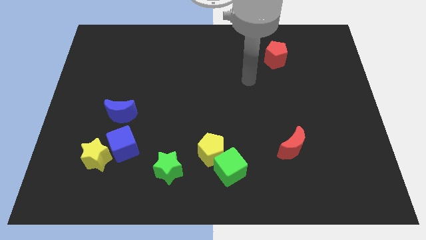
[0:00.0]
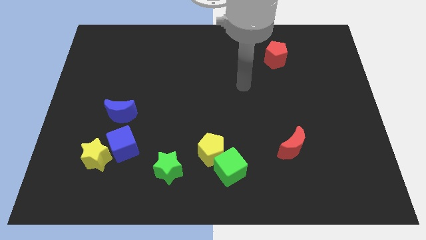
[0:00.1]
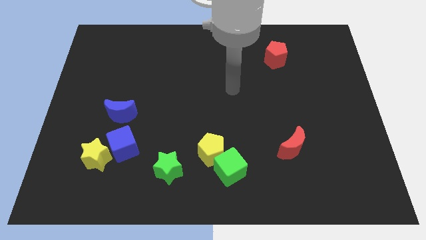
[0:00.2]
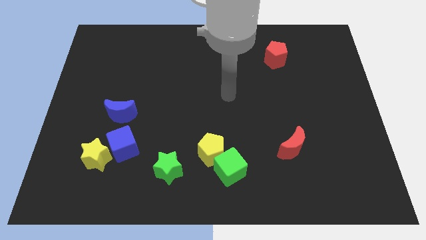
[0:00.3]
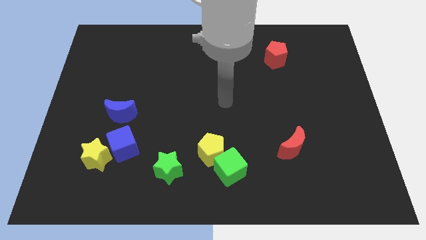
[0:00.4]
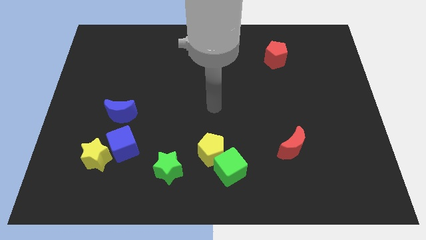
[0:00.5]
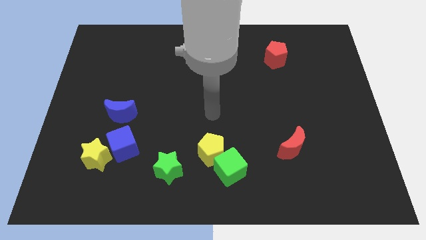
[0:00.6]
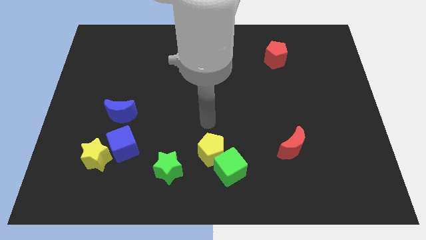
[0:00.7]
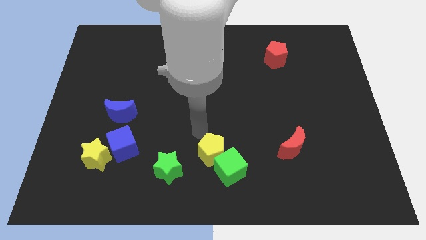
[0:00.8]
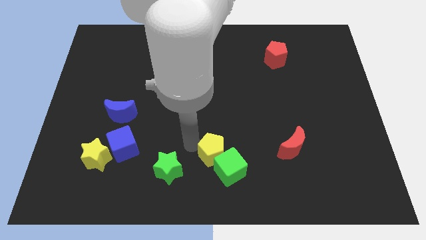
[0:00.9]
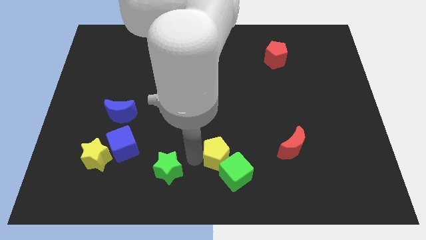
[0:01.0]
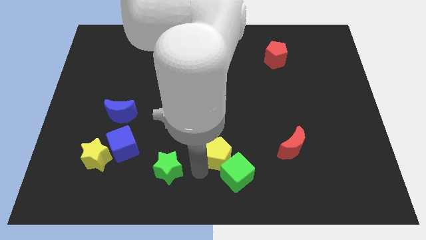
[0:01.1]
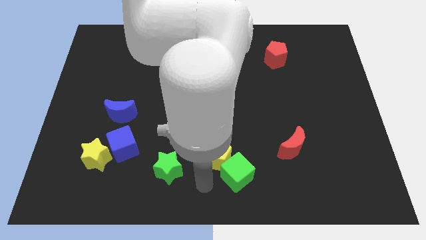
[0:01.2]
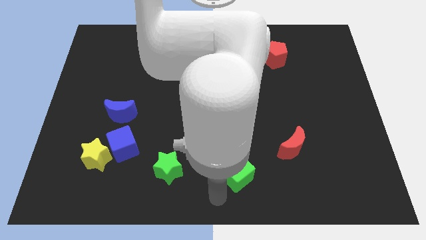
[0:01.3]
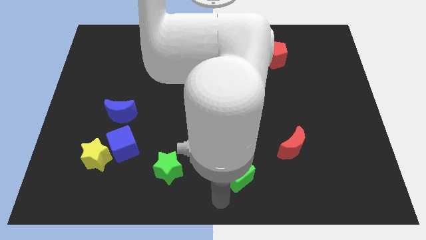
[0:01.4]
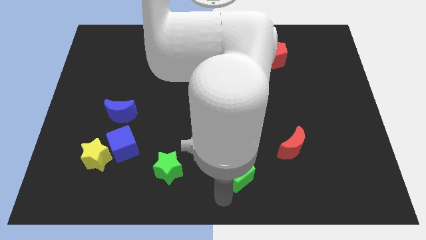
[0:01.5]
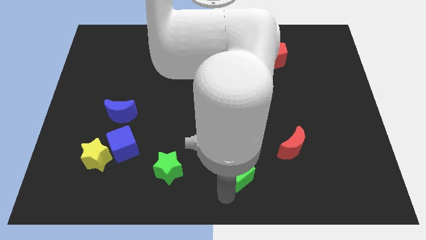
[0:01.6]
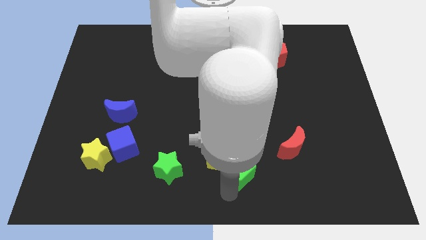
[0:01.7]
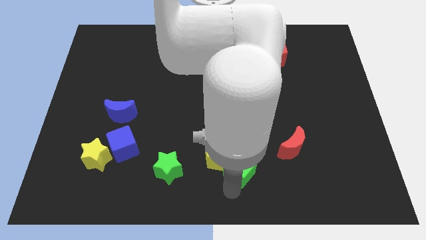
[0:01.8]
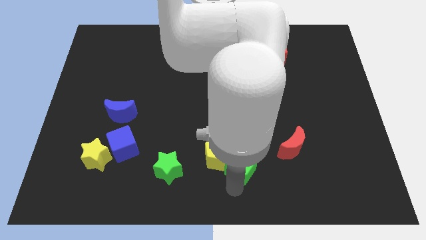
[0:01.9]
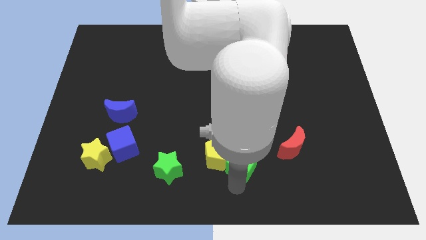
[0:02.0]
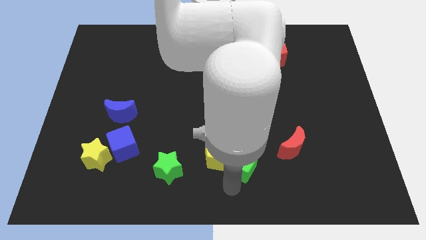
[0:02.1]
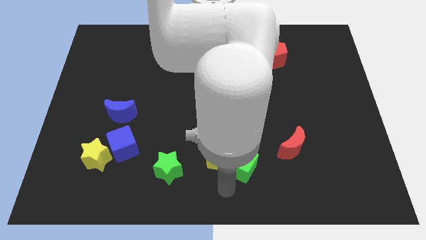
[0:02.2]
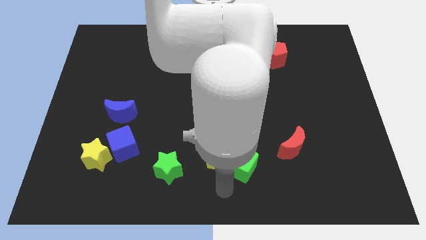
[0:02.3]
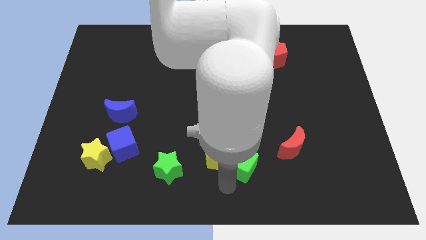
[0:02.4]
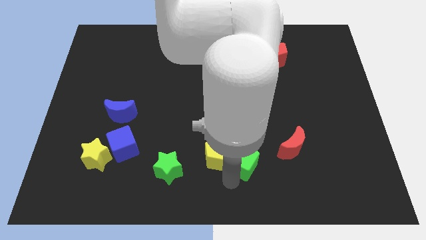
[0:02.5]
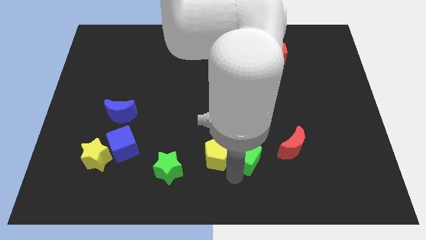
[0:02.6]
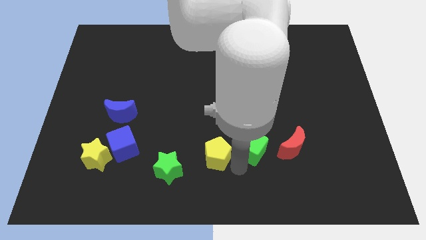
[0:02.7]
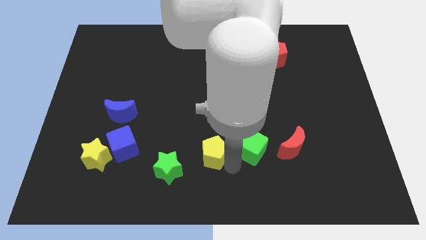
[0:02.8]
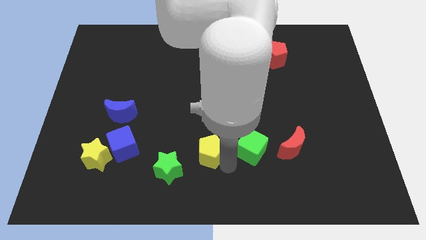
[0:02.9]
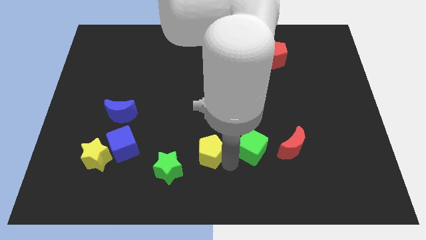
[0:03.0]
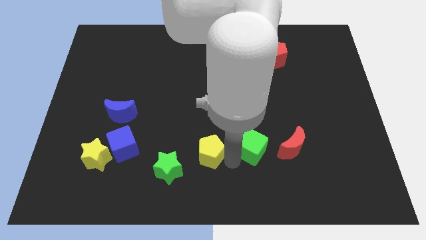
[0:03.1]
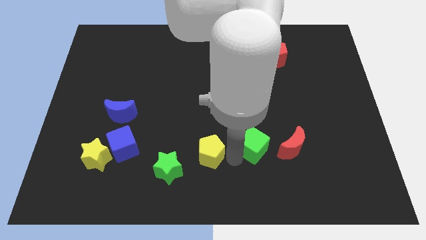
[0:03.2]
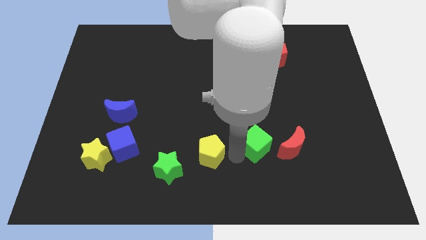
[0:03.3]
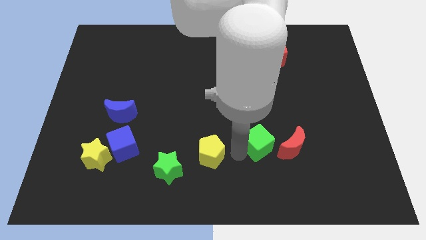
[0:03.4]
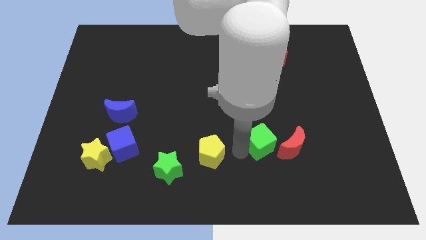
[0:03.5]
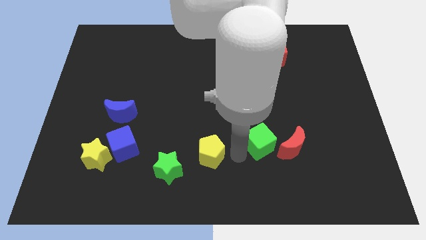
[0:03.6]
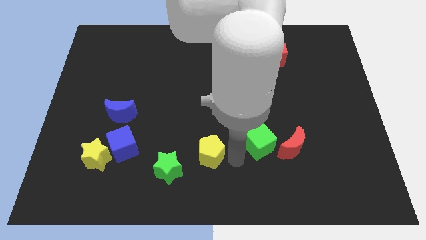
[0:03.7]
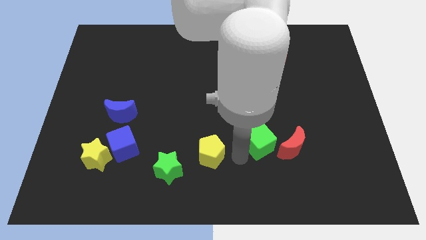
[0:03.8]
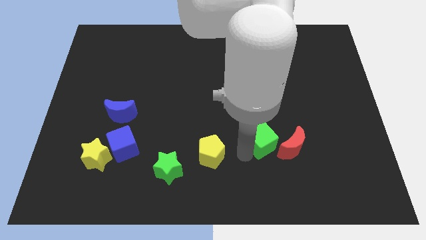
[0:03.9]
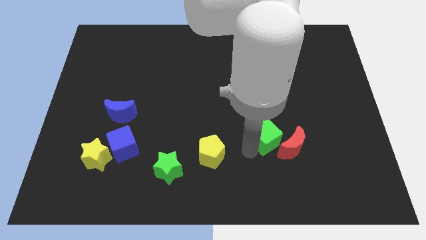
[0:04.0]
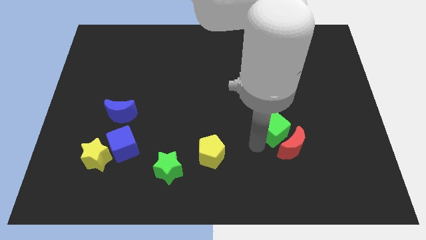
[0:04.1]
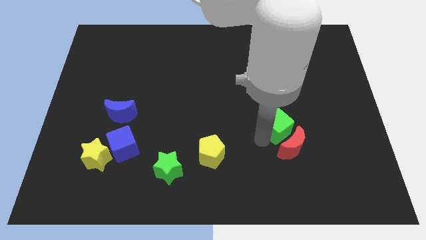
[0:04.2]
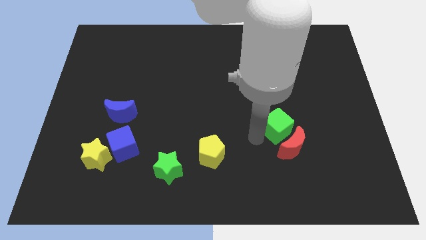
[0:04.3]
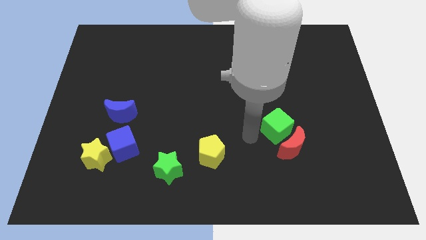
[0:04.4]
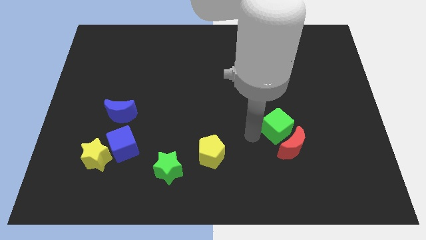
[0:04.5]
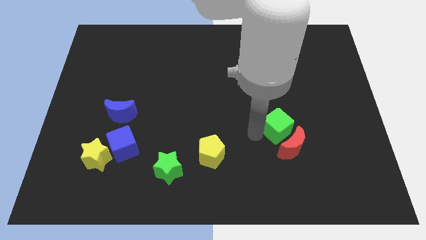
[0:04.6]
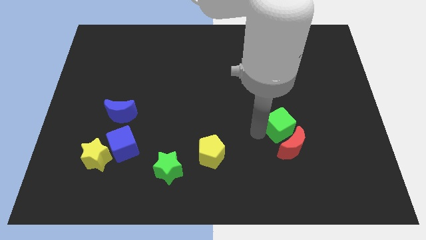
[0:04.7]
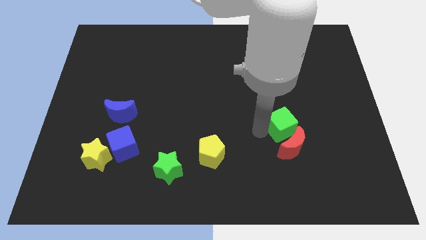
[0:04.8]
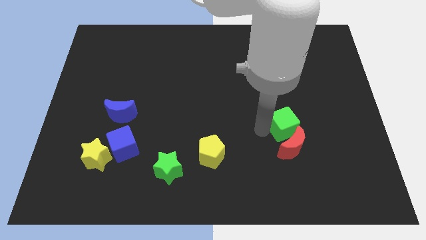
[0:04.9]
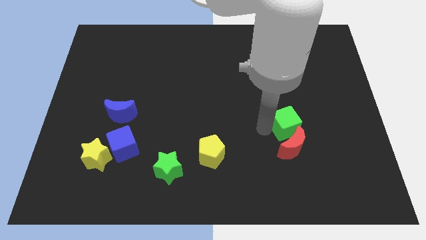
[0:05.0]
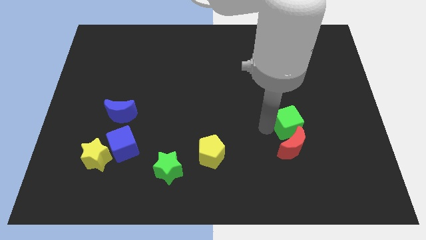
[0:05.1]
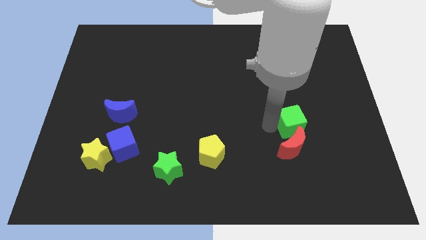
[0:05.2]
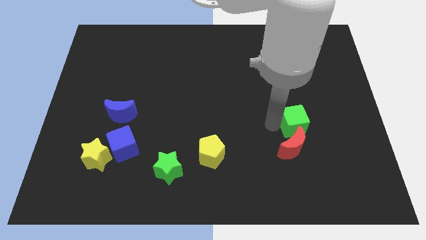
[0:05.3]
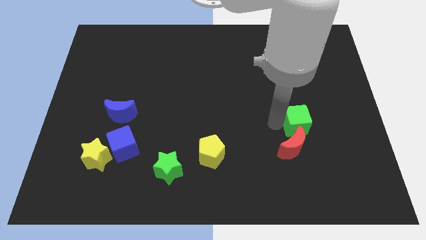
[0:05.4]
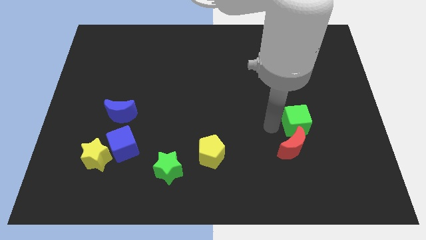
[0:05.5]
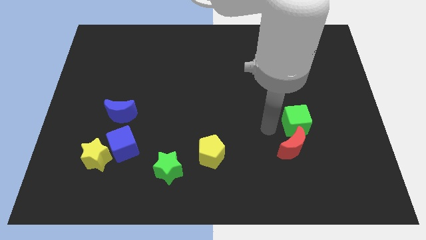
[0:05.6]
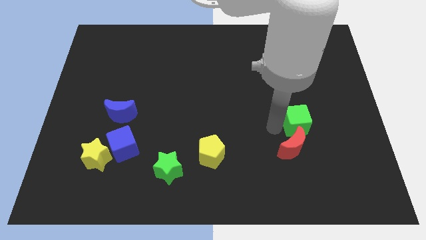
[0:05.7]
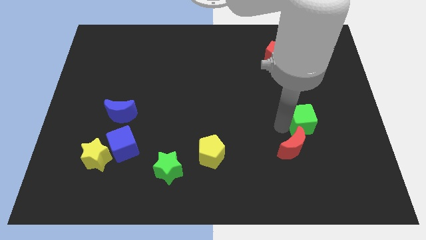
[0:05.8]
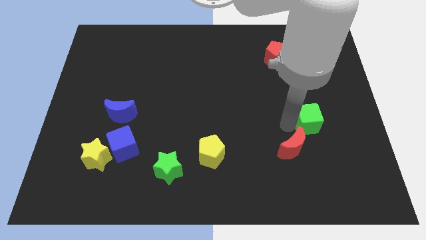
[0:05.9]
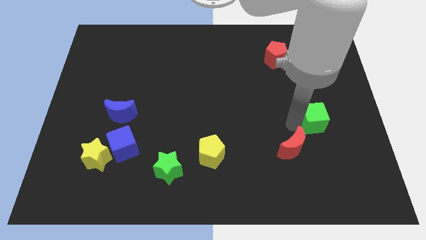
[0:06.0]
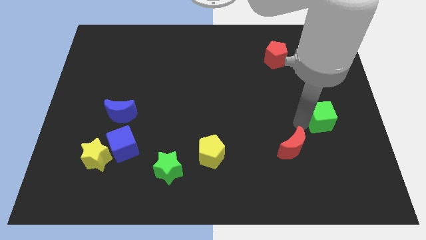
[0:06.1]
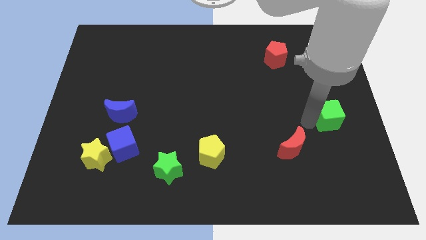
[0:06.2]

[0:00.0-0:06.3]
slide the green cube to the center right
